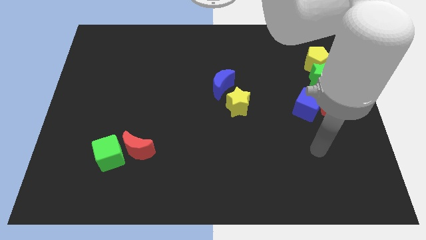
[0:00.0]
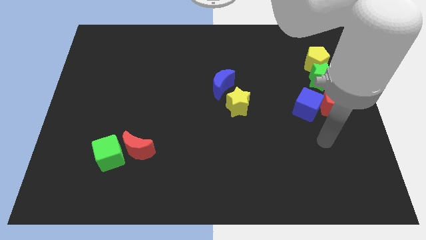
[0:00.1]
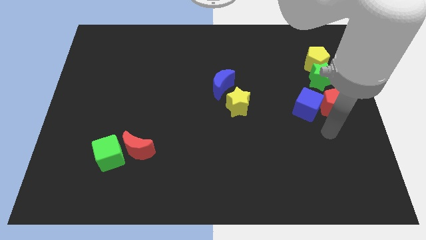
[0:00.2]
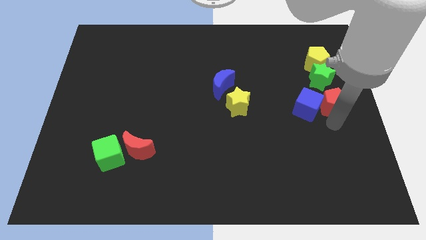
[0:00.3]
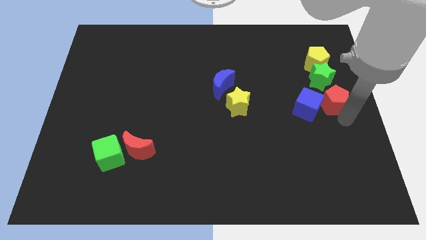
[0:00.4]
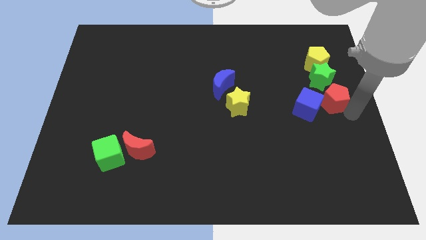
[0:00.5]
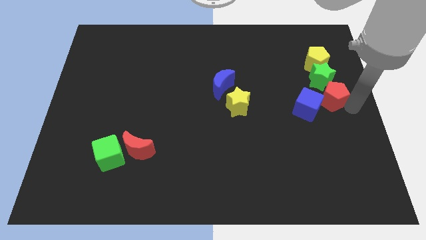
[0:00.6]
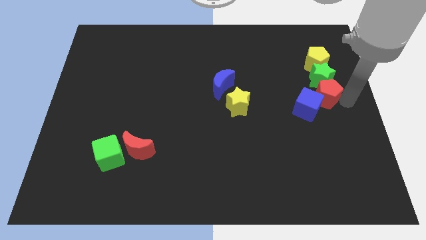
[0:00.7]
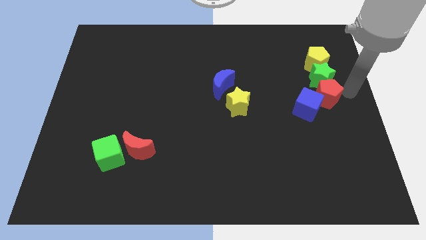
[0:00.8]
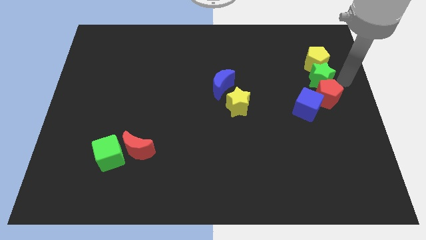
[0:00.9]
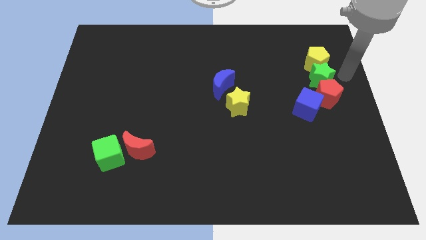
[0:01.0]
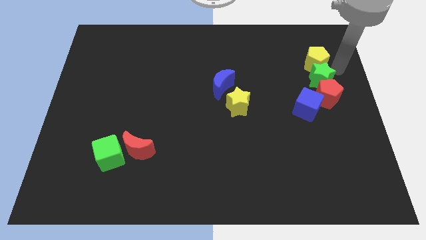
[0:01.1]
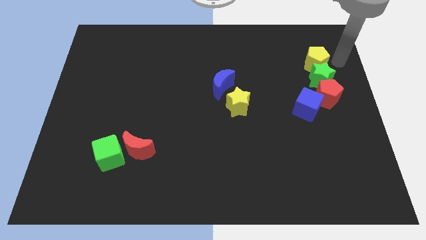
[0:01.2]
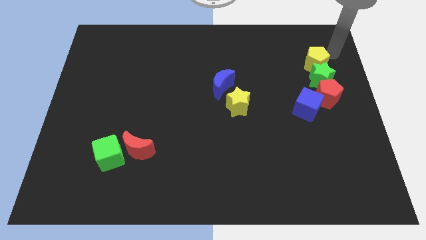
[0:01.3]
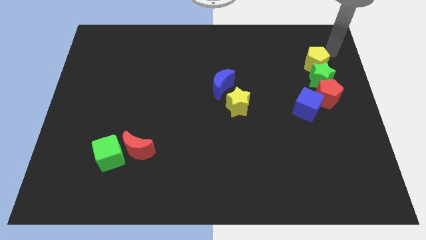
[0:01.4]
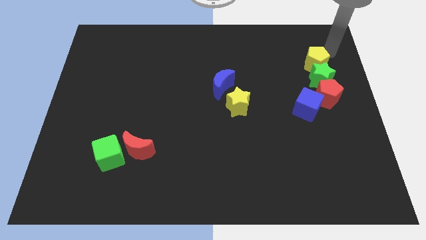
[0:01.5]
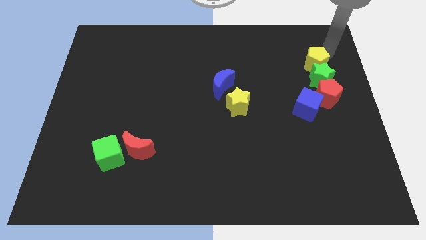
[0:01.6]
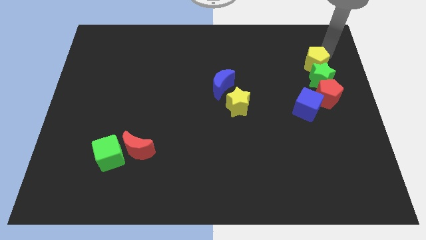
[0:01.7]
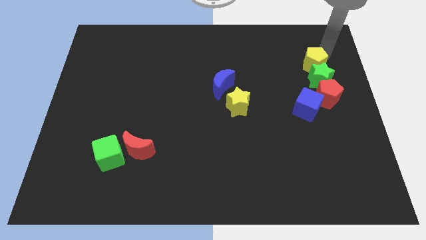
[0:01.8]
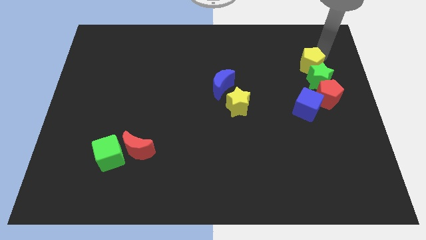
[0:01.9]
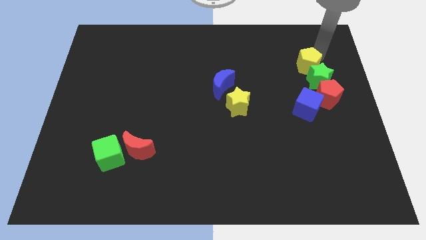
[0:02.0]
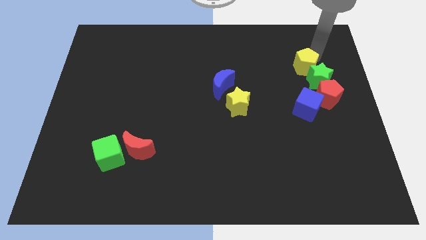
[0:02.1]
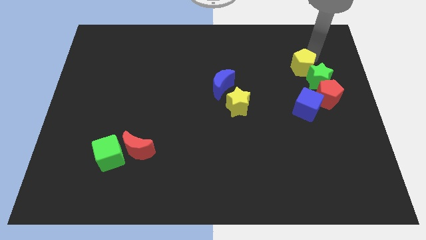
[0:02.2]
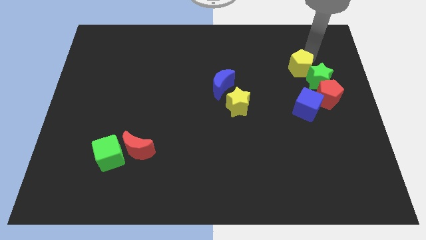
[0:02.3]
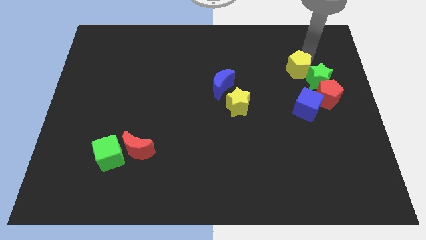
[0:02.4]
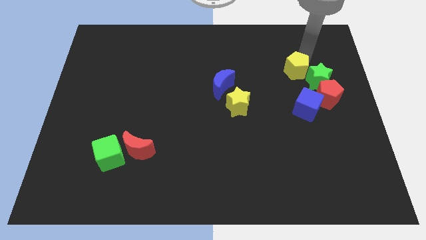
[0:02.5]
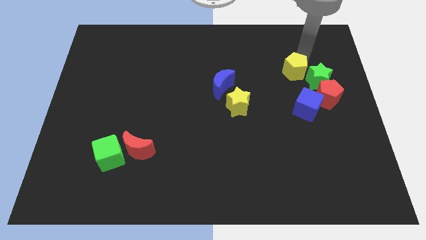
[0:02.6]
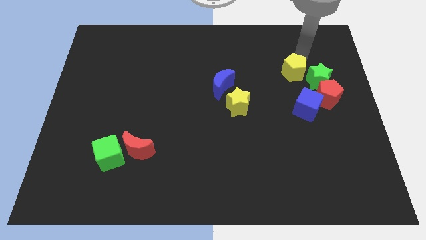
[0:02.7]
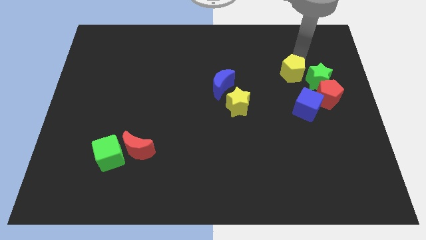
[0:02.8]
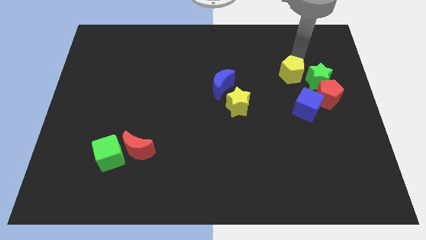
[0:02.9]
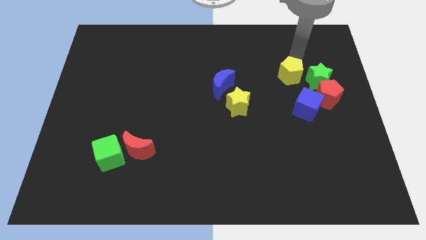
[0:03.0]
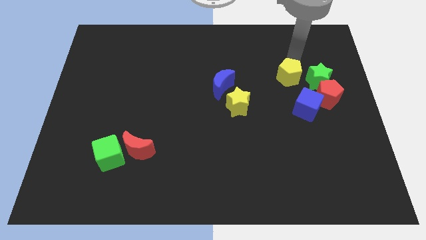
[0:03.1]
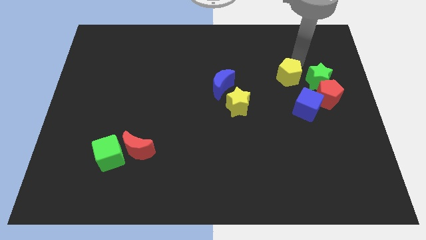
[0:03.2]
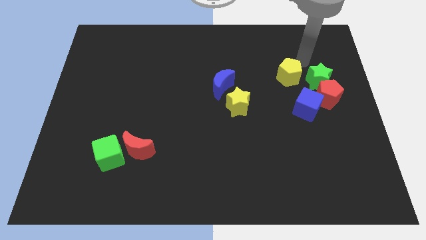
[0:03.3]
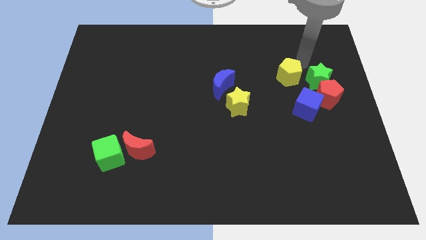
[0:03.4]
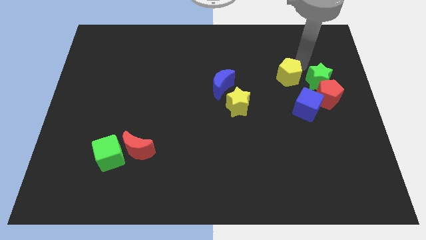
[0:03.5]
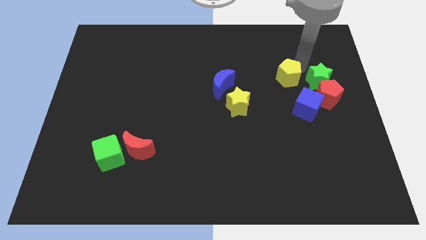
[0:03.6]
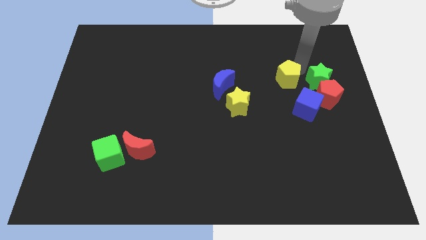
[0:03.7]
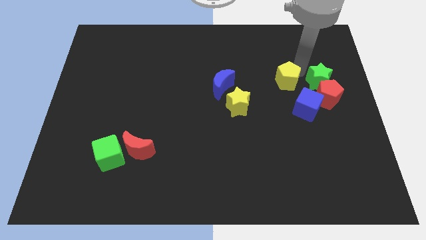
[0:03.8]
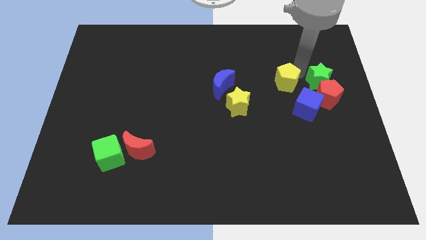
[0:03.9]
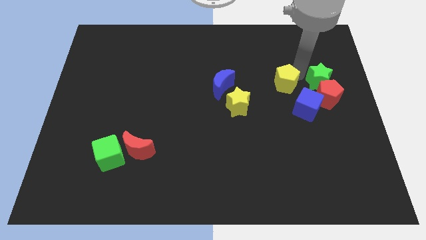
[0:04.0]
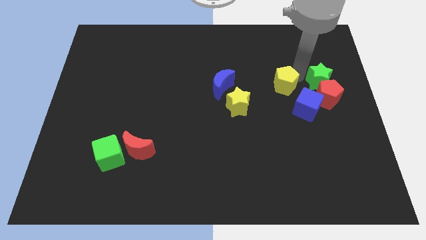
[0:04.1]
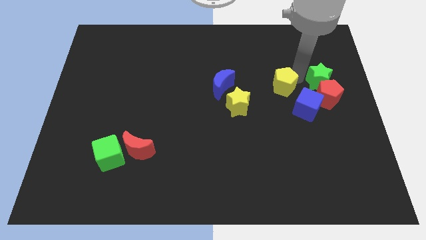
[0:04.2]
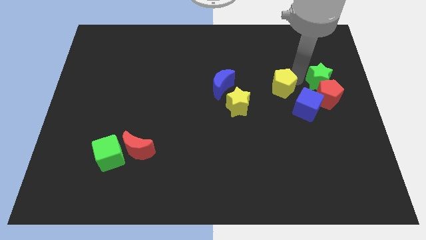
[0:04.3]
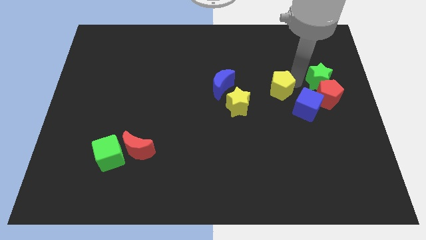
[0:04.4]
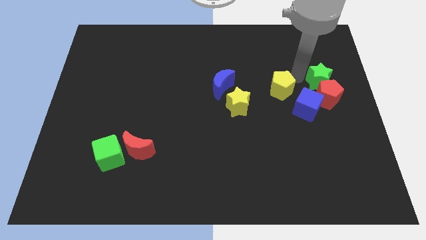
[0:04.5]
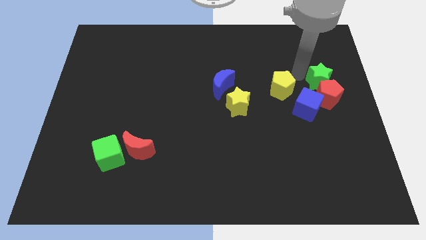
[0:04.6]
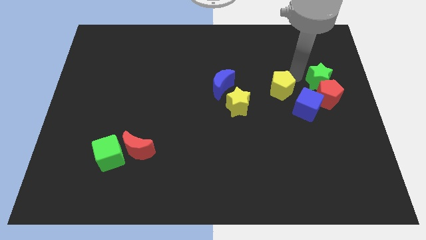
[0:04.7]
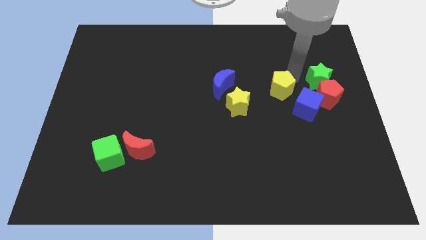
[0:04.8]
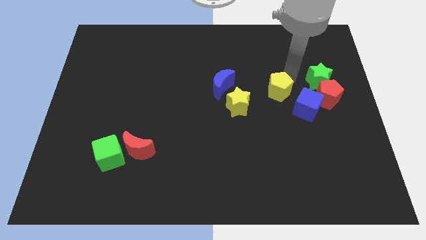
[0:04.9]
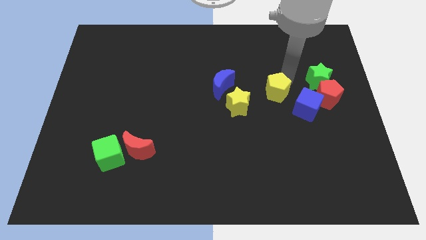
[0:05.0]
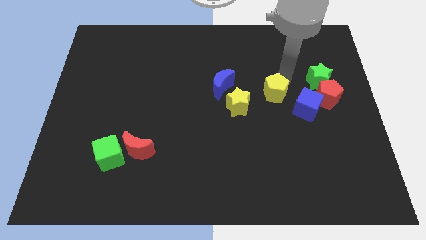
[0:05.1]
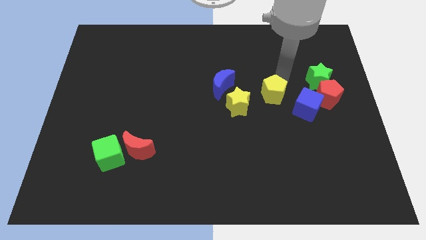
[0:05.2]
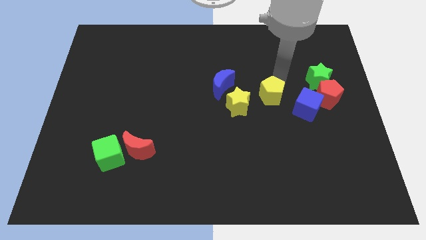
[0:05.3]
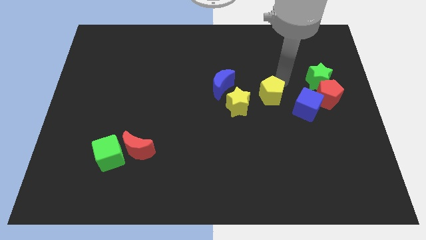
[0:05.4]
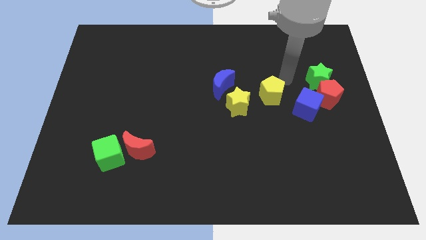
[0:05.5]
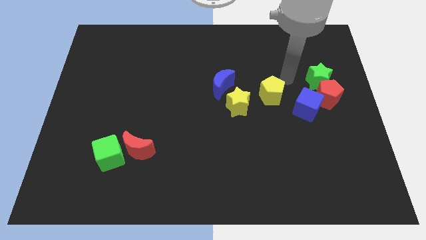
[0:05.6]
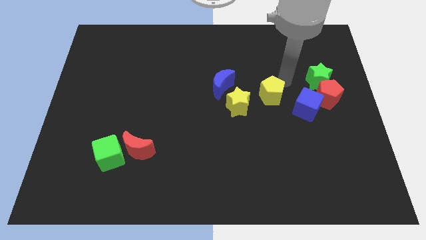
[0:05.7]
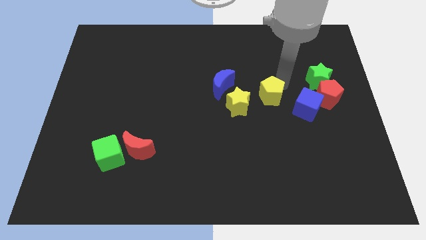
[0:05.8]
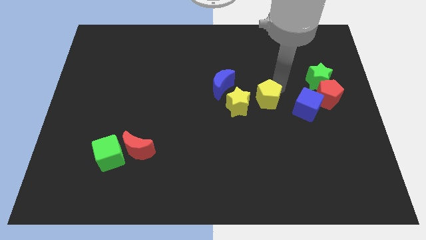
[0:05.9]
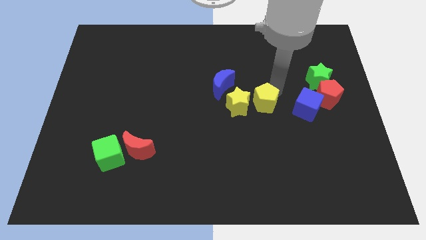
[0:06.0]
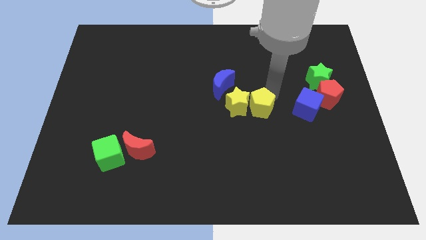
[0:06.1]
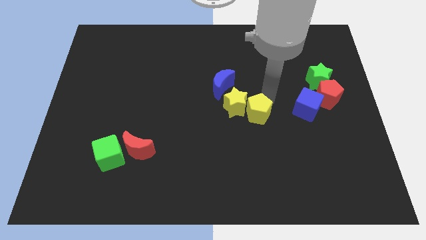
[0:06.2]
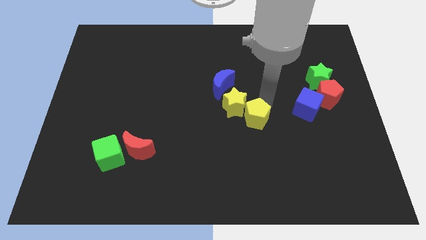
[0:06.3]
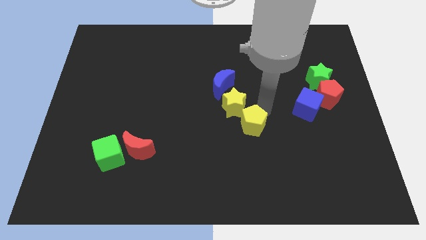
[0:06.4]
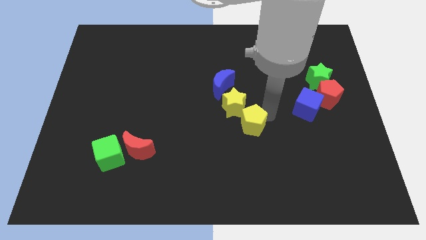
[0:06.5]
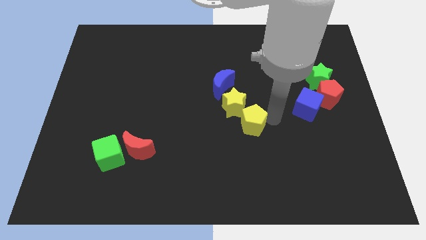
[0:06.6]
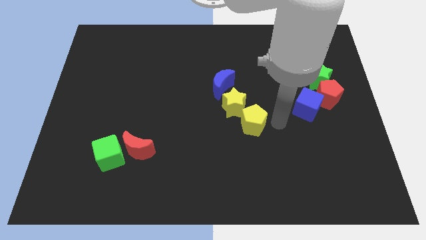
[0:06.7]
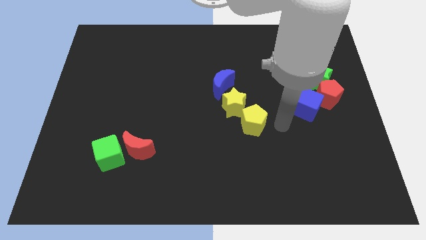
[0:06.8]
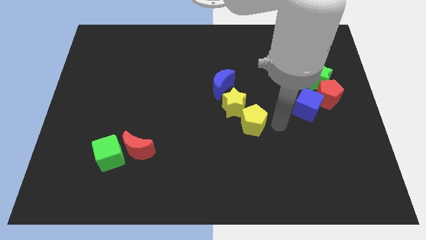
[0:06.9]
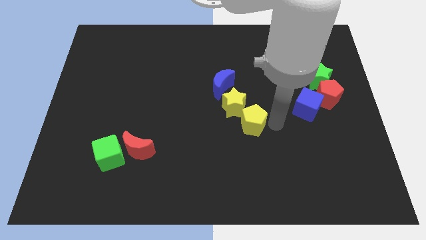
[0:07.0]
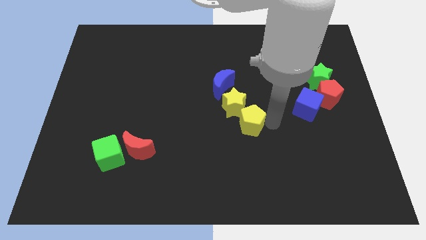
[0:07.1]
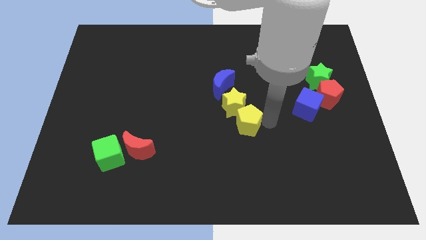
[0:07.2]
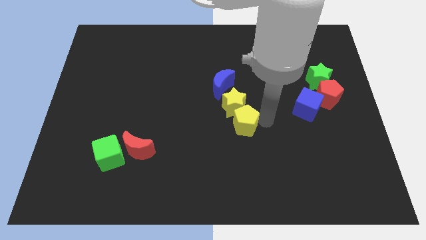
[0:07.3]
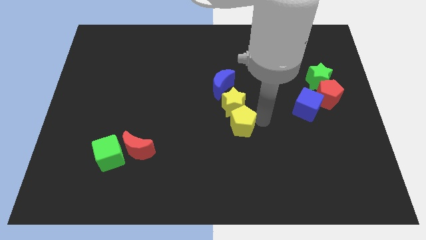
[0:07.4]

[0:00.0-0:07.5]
move the yellow pentagon to the bottom side of the blue moon

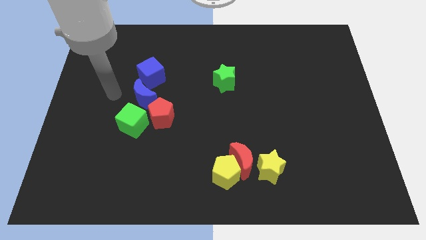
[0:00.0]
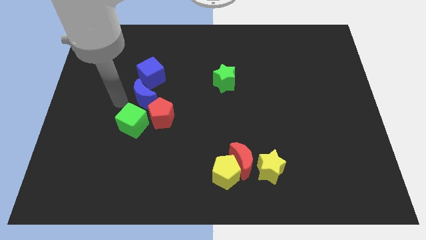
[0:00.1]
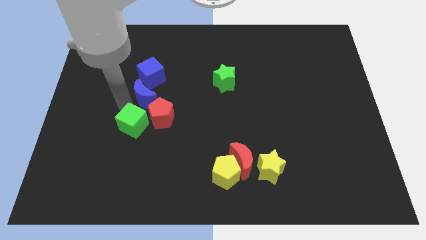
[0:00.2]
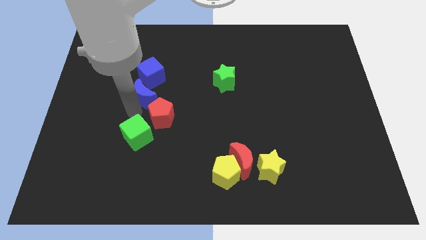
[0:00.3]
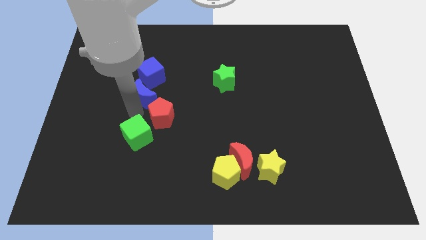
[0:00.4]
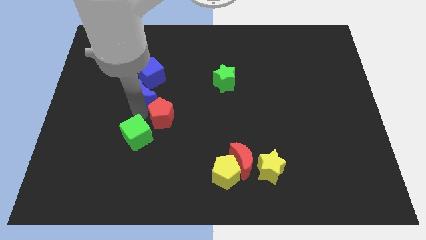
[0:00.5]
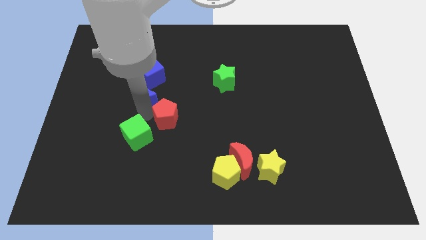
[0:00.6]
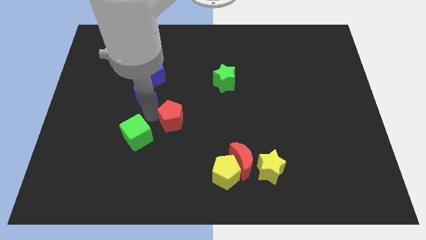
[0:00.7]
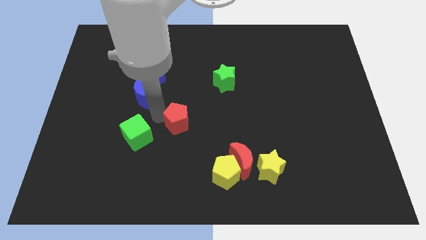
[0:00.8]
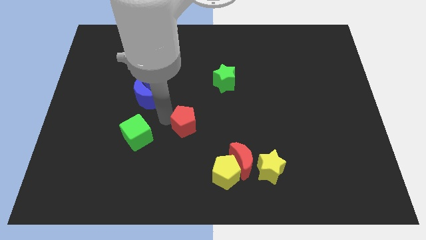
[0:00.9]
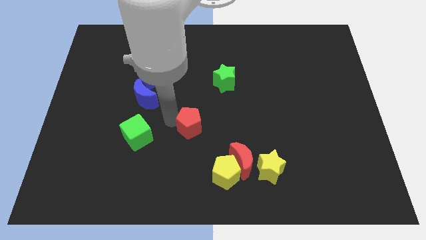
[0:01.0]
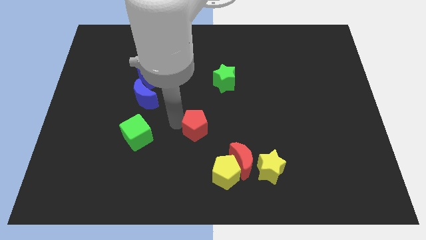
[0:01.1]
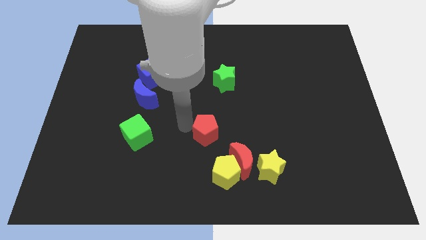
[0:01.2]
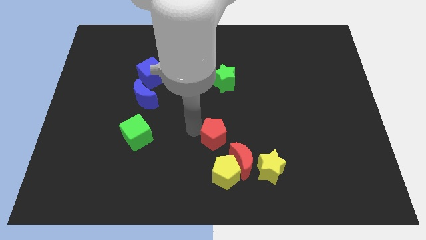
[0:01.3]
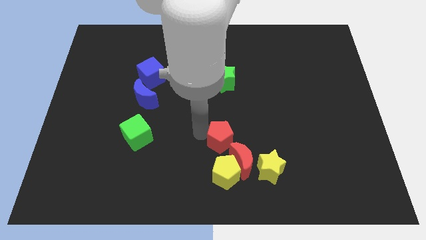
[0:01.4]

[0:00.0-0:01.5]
push the red pentagon to the top side of the red moon
